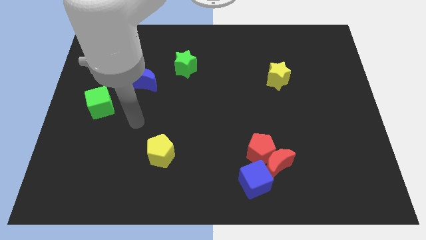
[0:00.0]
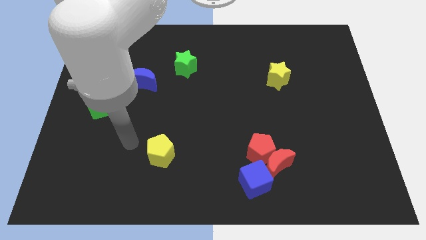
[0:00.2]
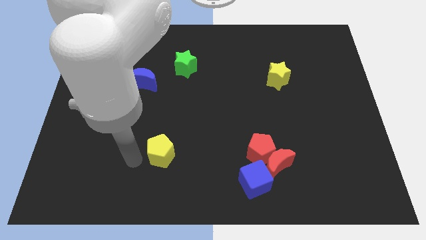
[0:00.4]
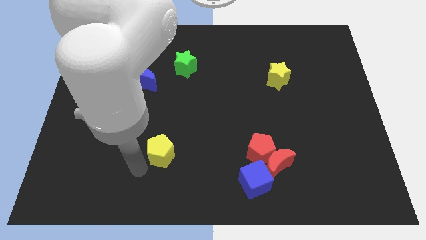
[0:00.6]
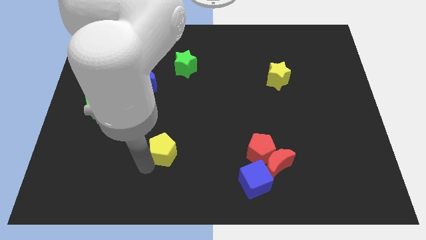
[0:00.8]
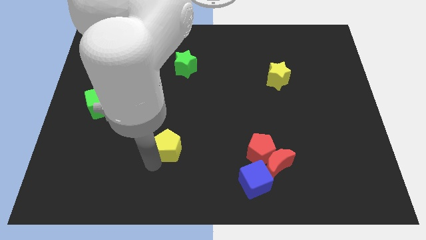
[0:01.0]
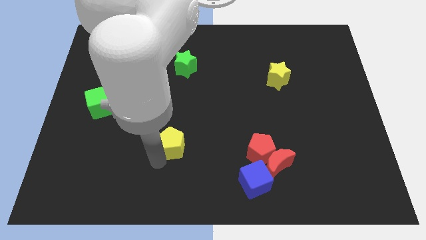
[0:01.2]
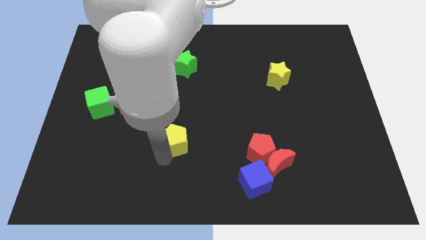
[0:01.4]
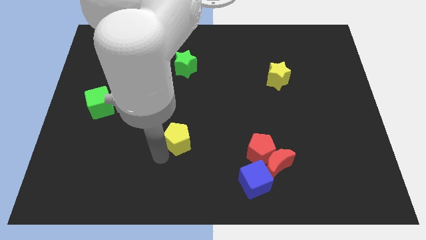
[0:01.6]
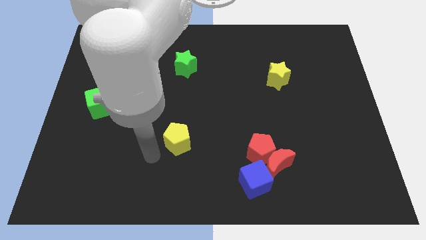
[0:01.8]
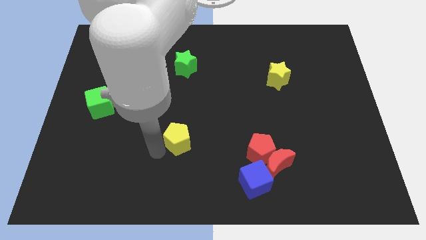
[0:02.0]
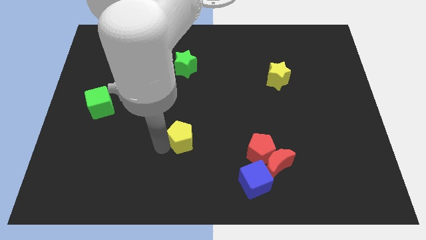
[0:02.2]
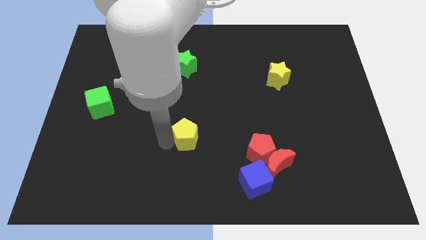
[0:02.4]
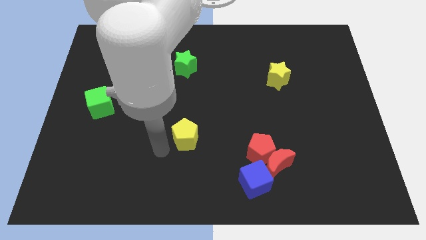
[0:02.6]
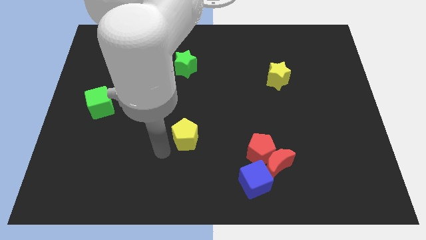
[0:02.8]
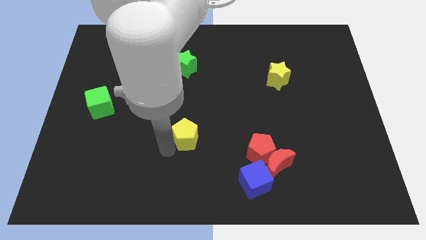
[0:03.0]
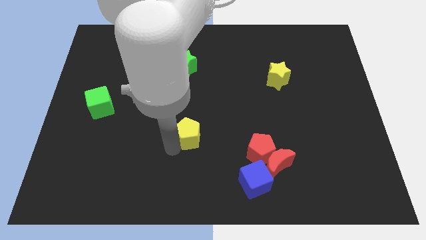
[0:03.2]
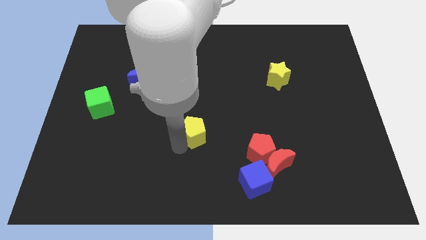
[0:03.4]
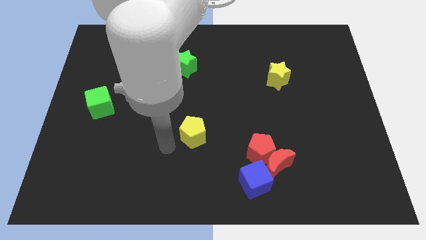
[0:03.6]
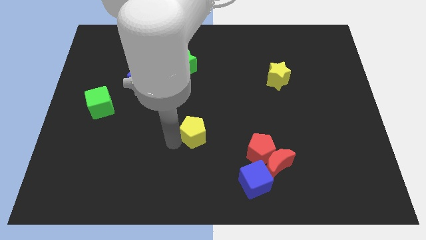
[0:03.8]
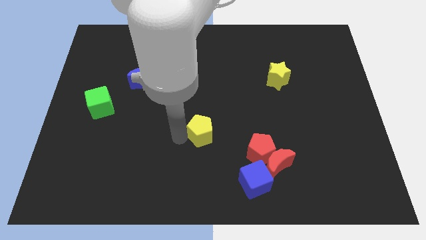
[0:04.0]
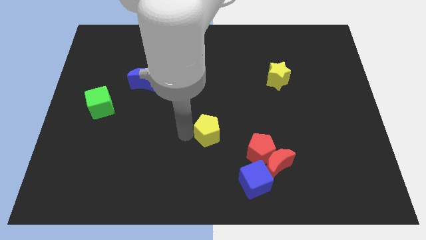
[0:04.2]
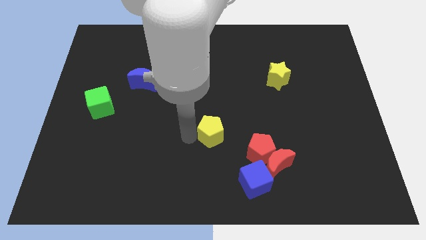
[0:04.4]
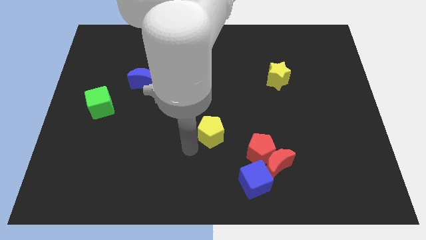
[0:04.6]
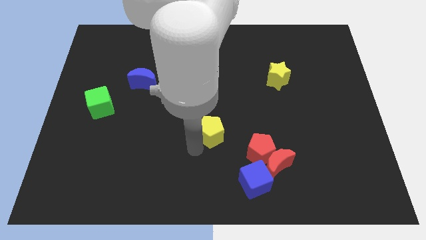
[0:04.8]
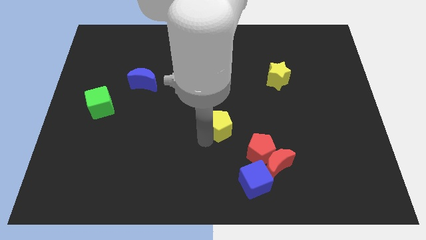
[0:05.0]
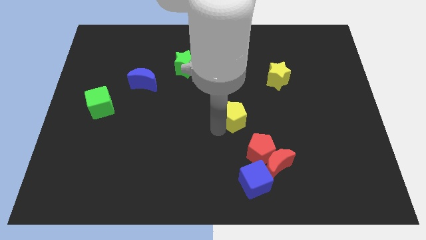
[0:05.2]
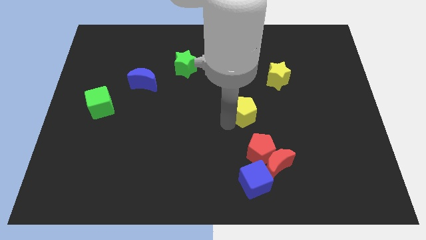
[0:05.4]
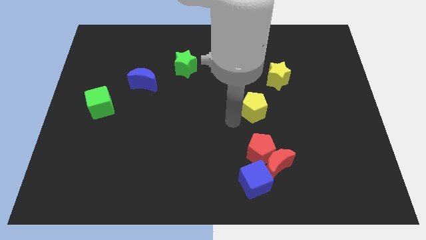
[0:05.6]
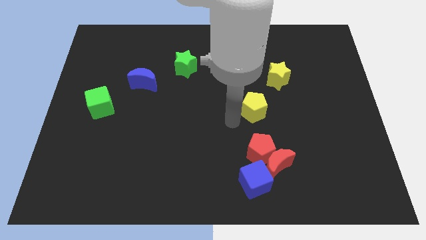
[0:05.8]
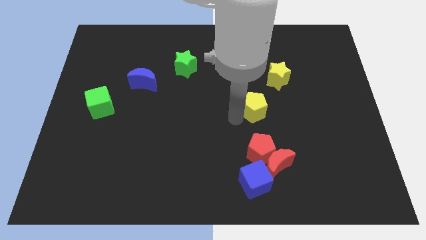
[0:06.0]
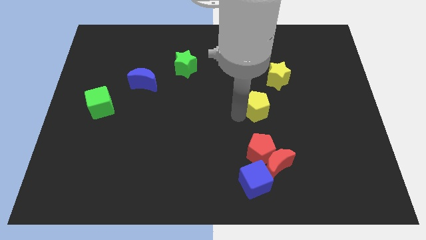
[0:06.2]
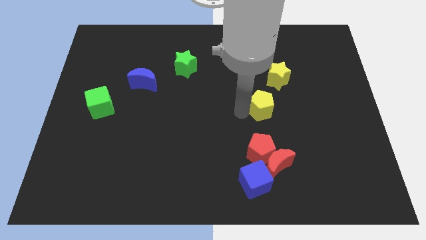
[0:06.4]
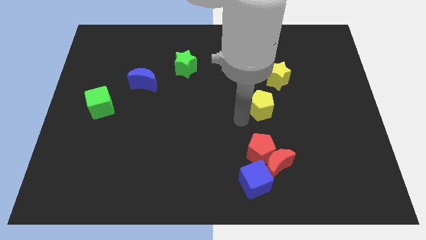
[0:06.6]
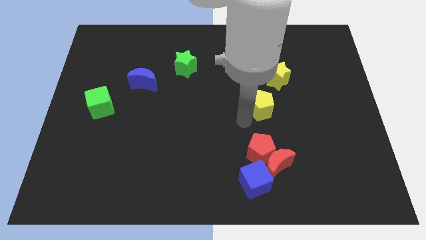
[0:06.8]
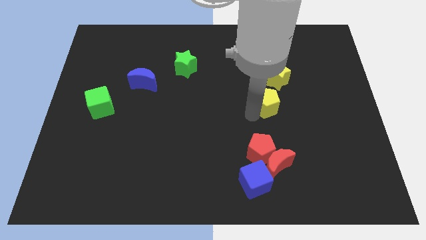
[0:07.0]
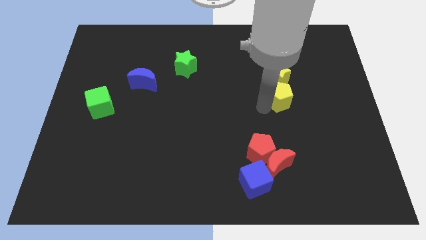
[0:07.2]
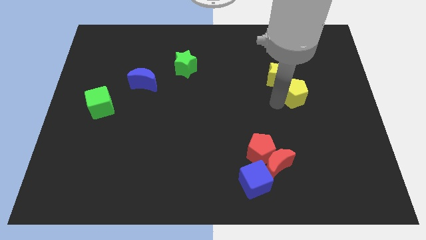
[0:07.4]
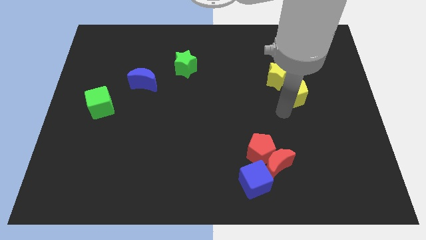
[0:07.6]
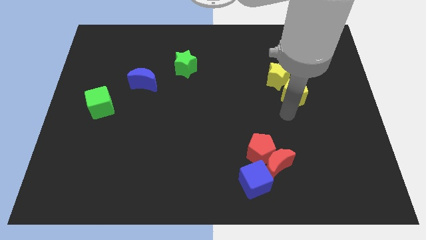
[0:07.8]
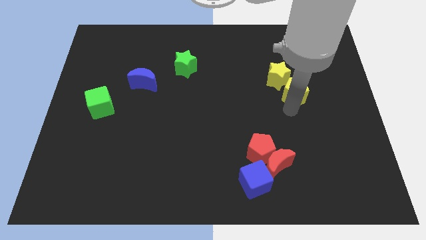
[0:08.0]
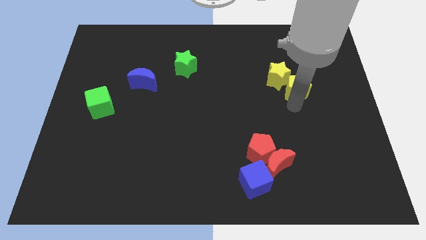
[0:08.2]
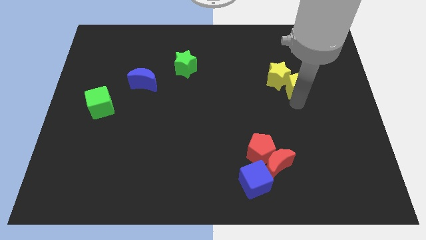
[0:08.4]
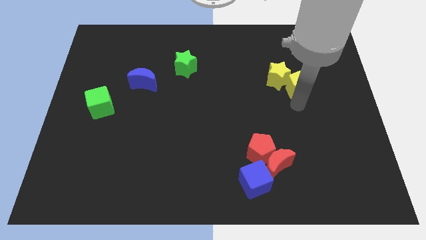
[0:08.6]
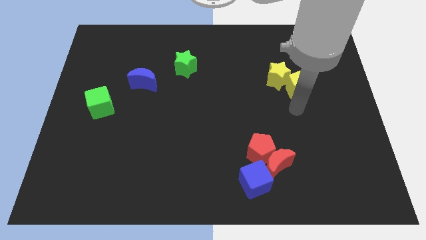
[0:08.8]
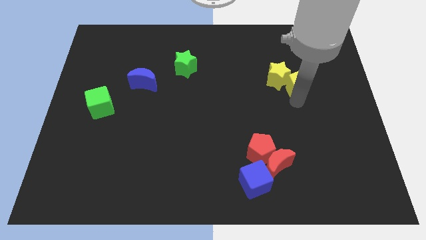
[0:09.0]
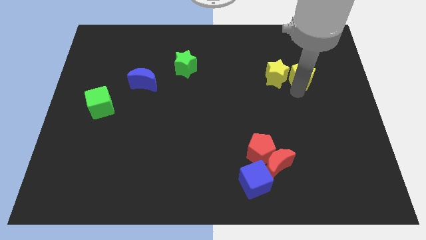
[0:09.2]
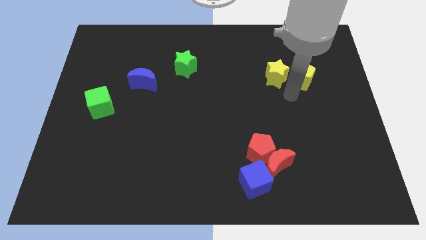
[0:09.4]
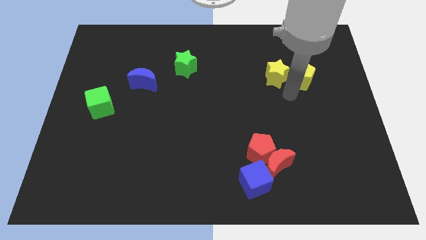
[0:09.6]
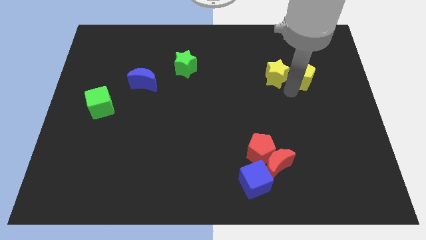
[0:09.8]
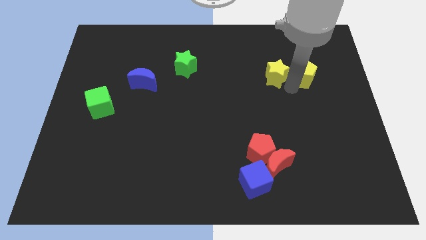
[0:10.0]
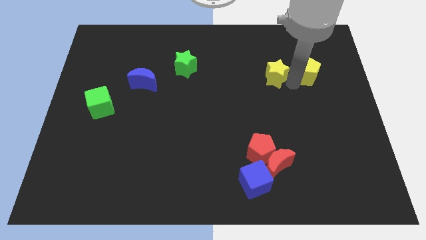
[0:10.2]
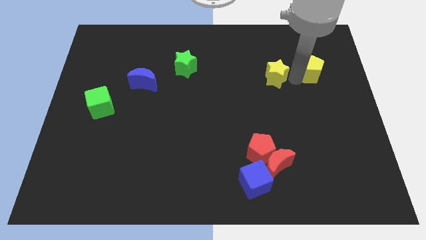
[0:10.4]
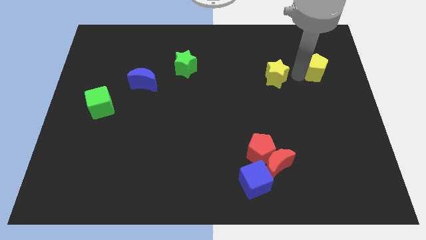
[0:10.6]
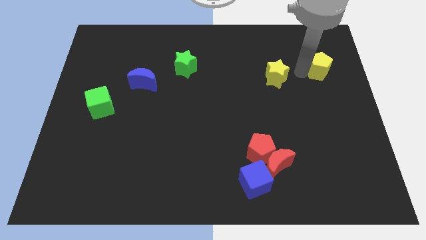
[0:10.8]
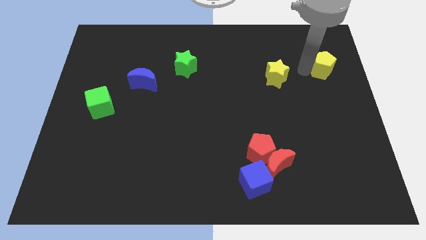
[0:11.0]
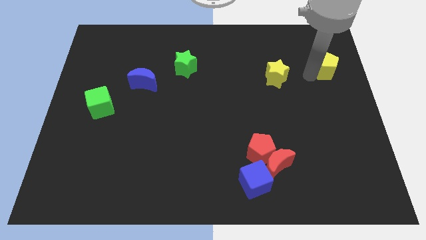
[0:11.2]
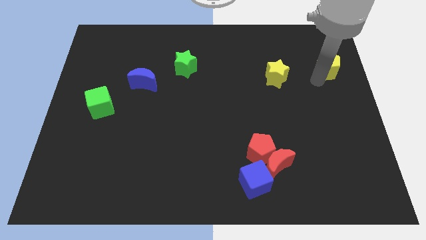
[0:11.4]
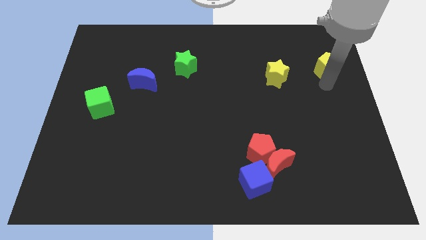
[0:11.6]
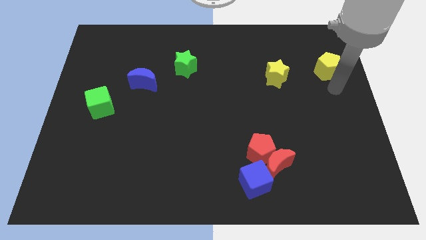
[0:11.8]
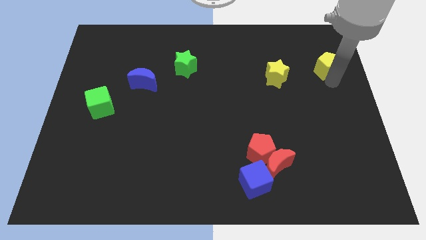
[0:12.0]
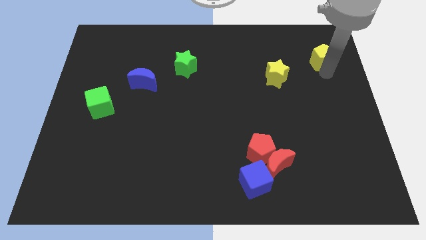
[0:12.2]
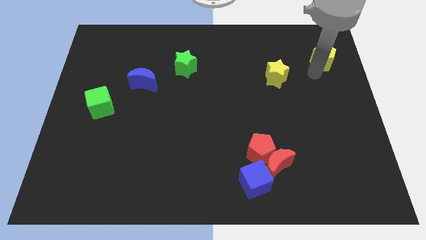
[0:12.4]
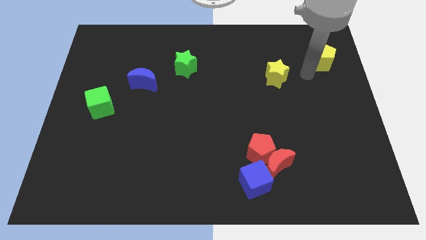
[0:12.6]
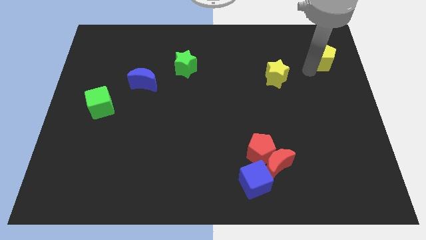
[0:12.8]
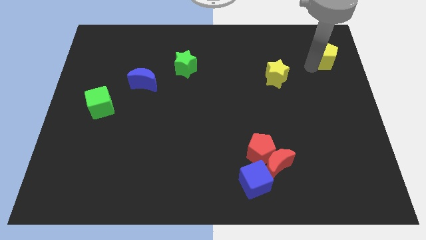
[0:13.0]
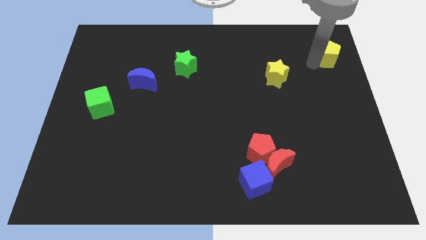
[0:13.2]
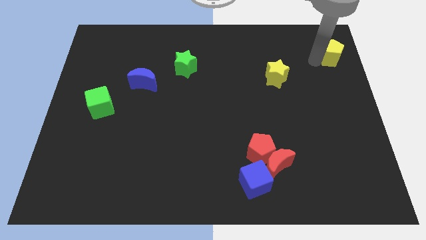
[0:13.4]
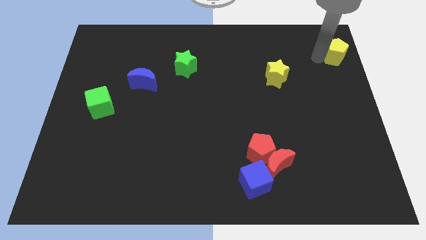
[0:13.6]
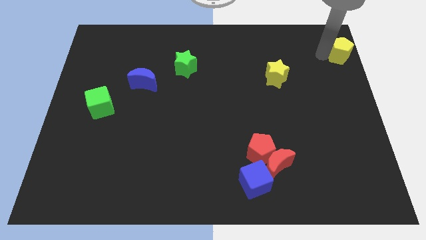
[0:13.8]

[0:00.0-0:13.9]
push the yellow pentagon to the top right of the board
